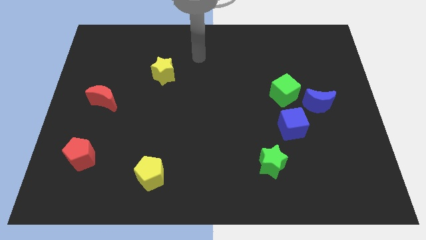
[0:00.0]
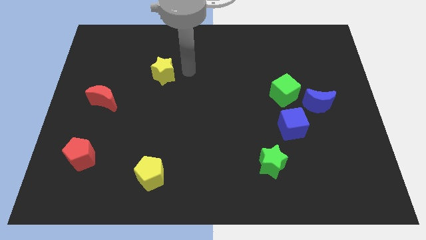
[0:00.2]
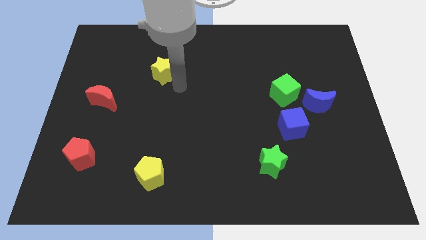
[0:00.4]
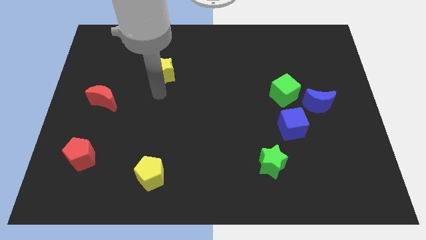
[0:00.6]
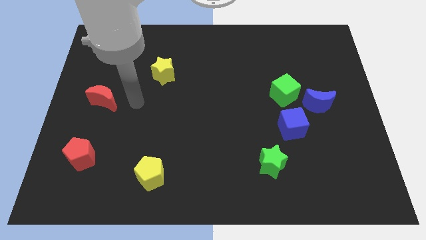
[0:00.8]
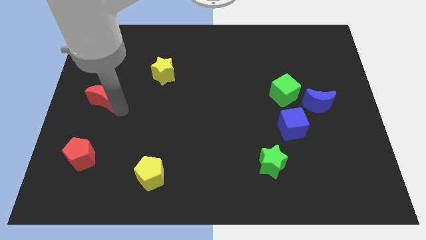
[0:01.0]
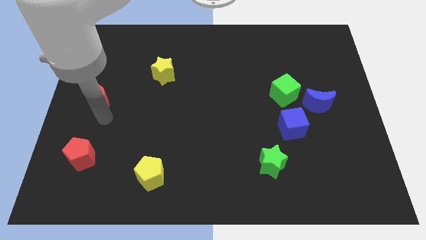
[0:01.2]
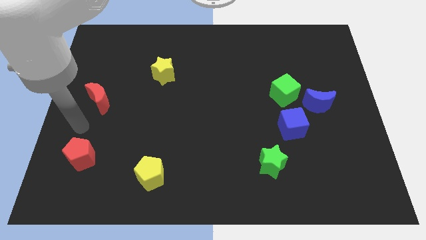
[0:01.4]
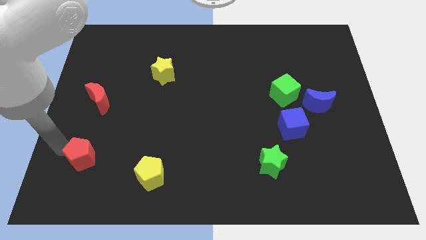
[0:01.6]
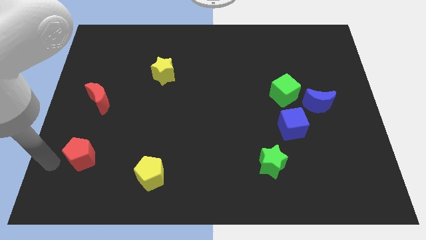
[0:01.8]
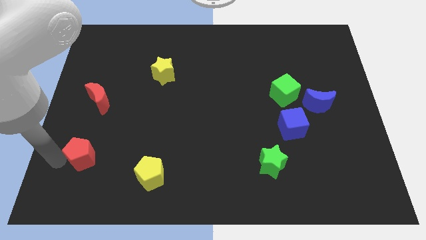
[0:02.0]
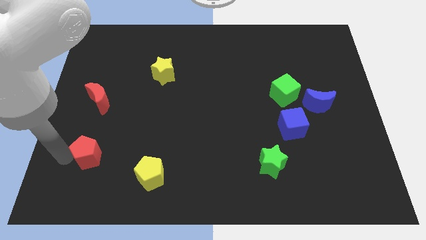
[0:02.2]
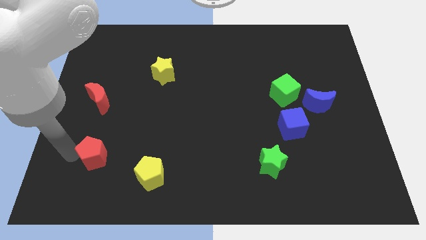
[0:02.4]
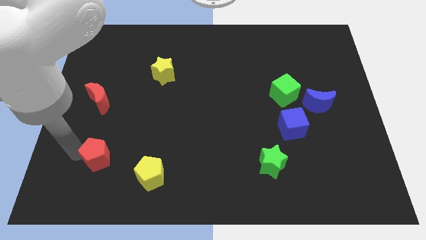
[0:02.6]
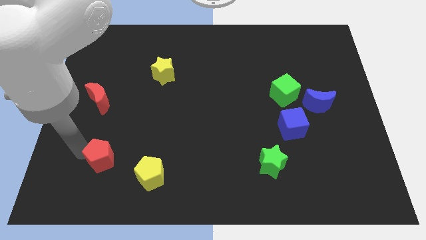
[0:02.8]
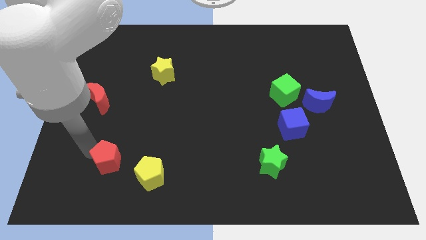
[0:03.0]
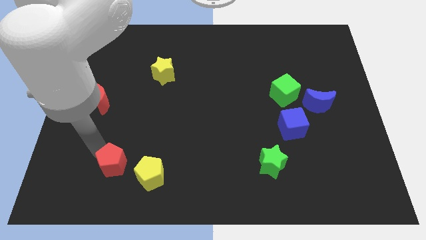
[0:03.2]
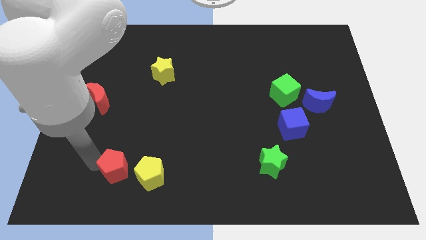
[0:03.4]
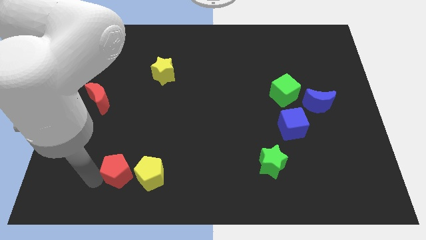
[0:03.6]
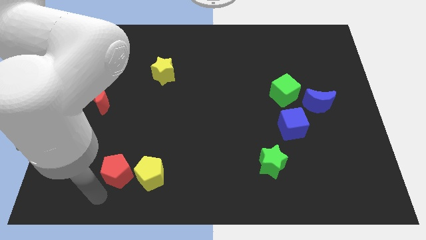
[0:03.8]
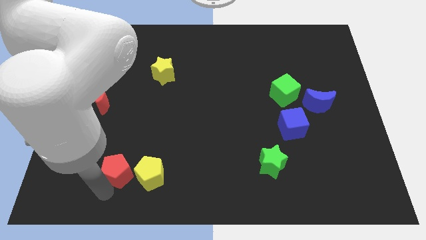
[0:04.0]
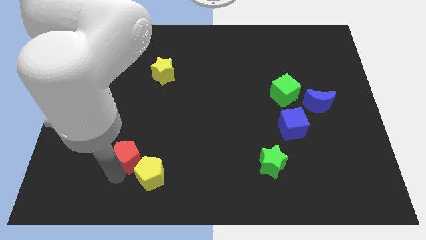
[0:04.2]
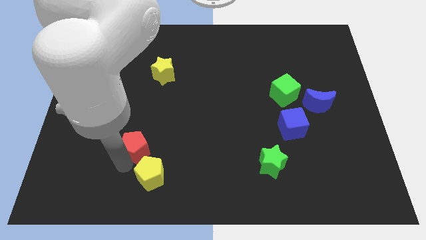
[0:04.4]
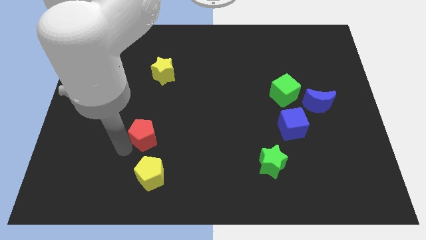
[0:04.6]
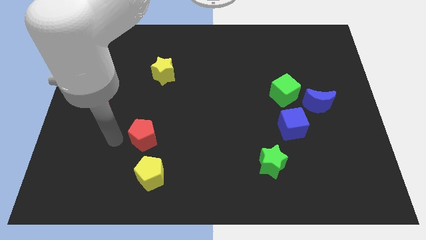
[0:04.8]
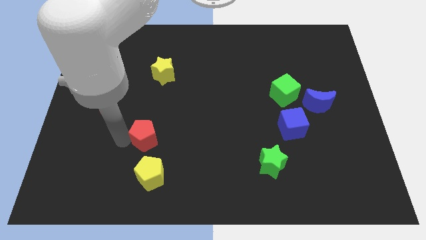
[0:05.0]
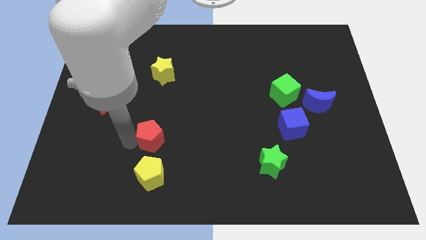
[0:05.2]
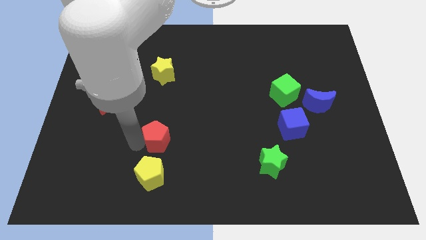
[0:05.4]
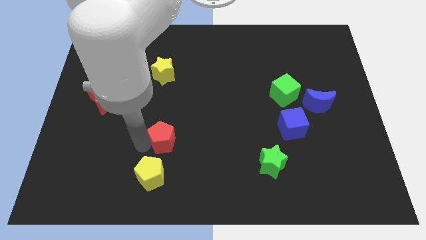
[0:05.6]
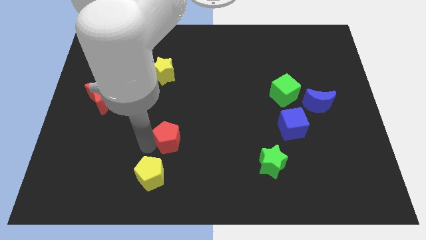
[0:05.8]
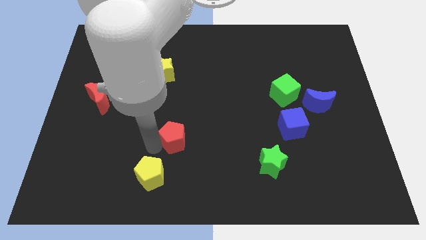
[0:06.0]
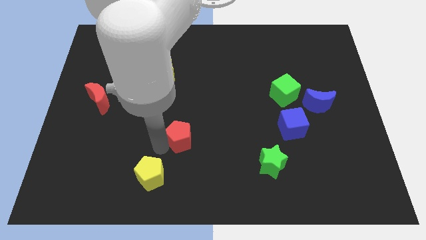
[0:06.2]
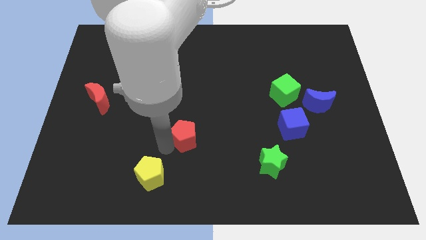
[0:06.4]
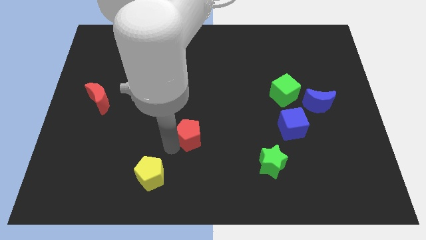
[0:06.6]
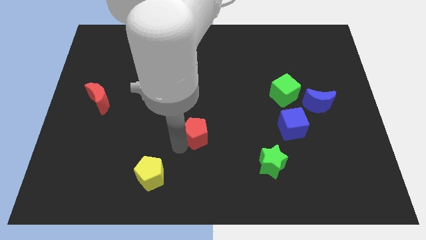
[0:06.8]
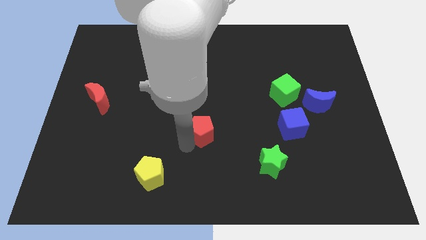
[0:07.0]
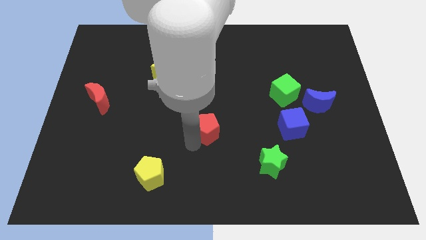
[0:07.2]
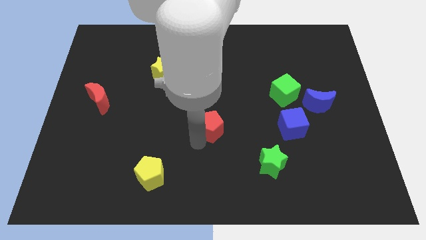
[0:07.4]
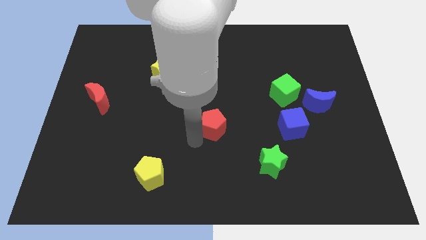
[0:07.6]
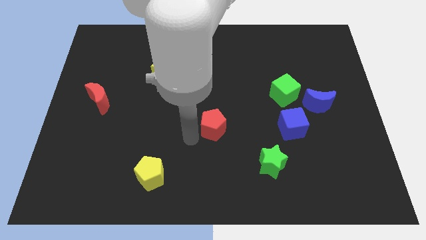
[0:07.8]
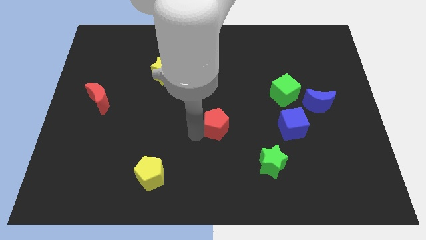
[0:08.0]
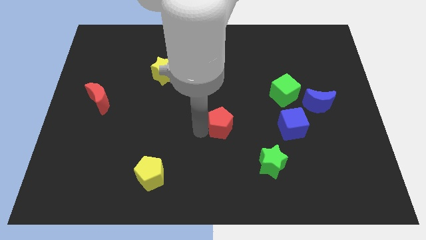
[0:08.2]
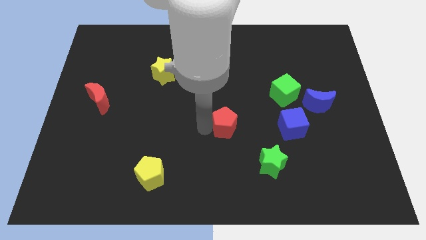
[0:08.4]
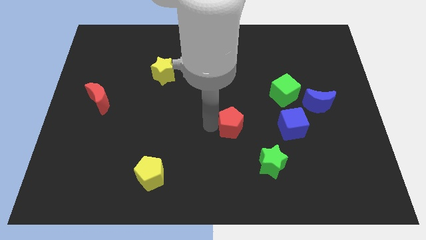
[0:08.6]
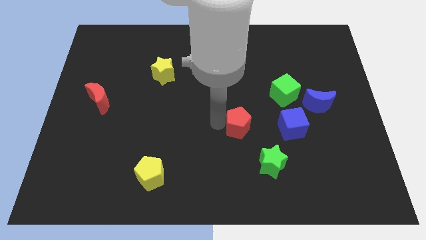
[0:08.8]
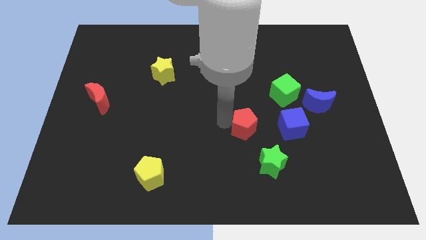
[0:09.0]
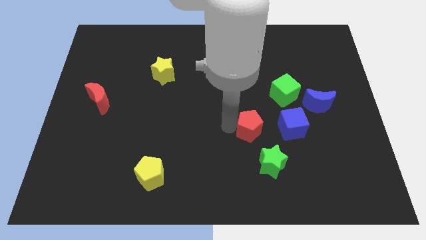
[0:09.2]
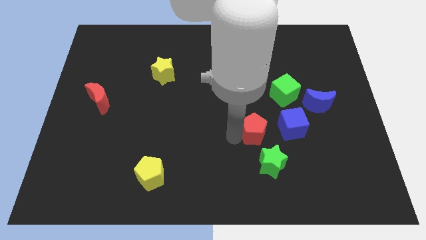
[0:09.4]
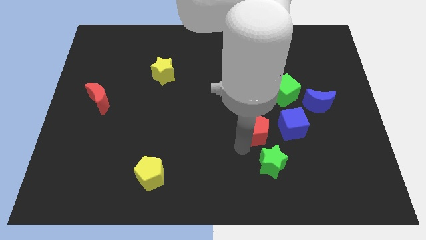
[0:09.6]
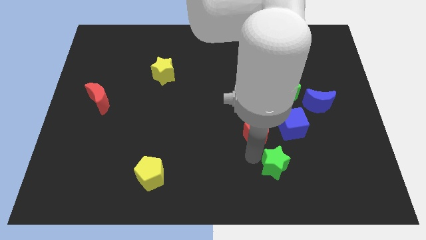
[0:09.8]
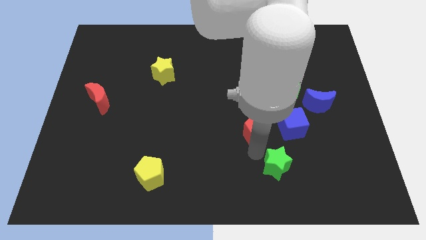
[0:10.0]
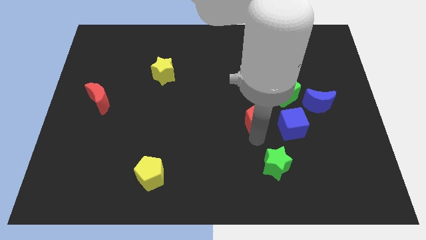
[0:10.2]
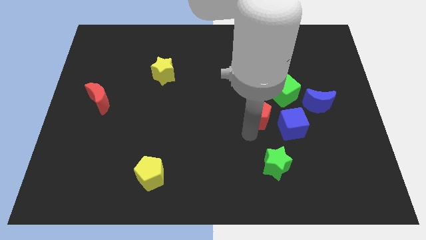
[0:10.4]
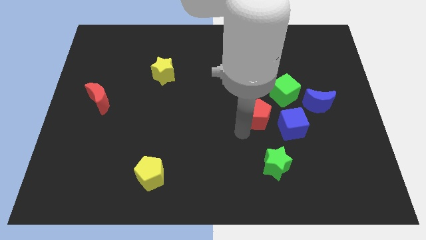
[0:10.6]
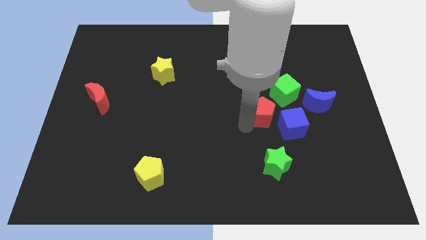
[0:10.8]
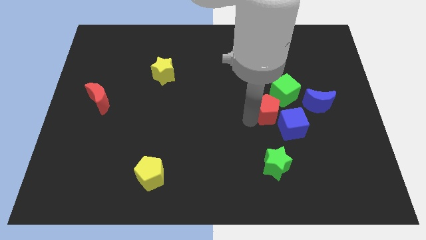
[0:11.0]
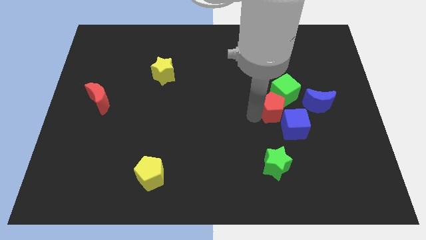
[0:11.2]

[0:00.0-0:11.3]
push the red pentagon to the green cube

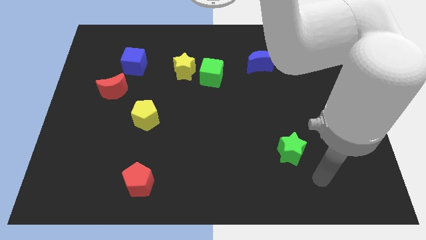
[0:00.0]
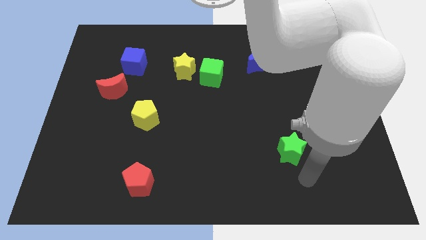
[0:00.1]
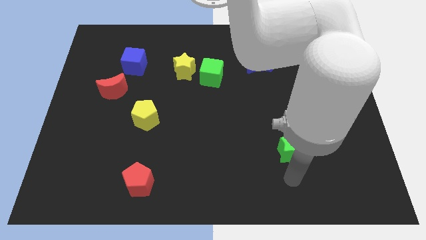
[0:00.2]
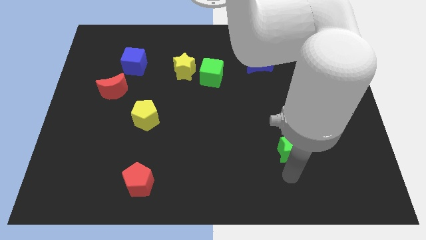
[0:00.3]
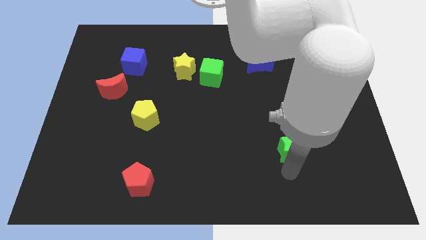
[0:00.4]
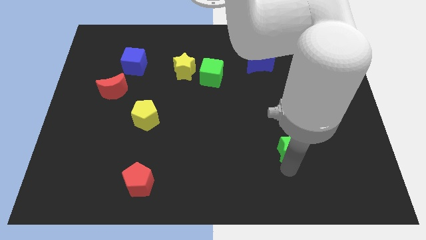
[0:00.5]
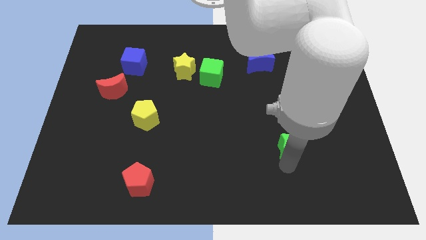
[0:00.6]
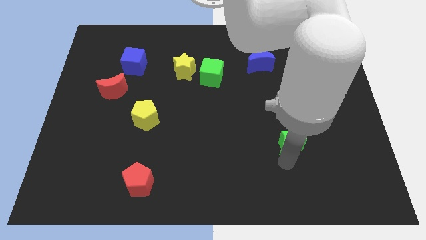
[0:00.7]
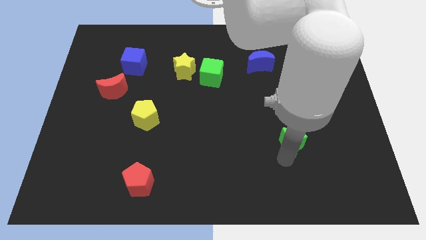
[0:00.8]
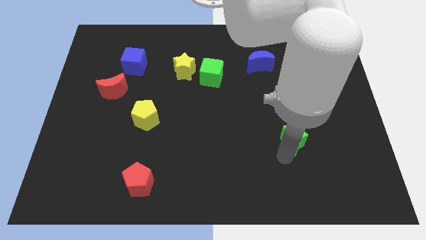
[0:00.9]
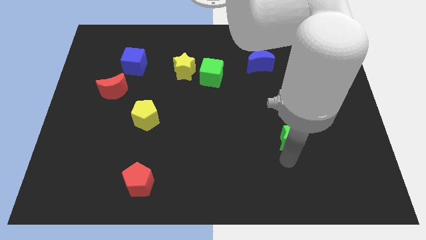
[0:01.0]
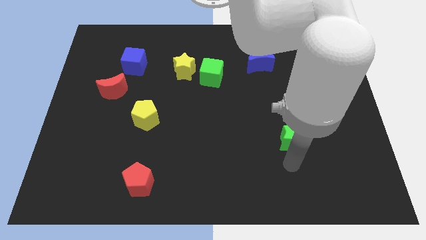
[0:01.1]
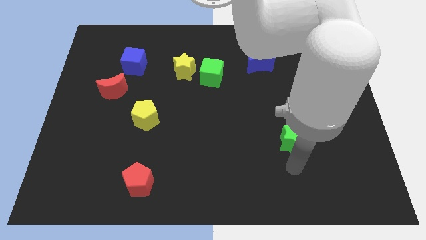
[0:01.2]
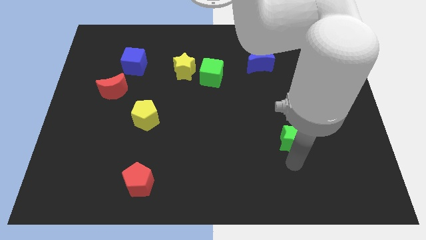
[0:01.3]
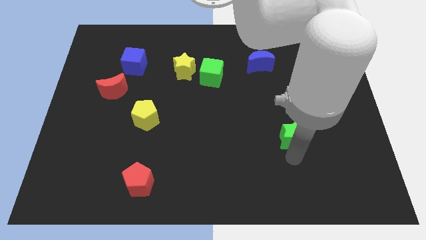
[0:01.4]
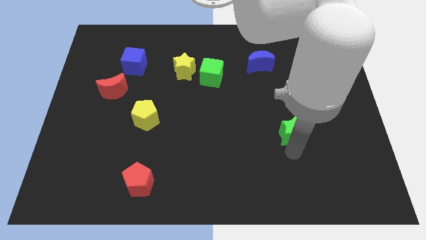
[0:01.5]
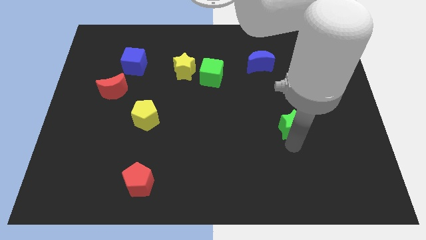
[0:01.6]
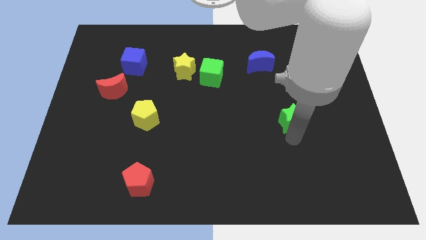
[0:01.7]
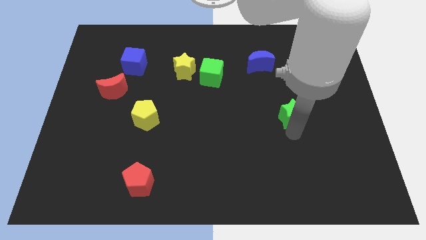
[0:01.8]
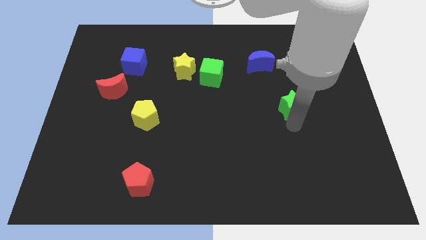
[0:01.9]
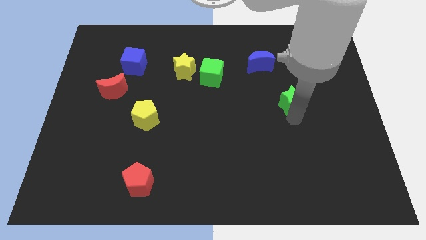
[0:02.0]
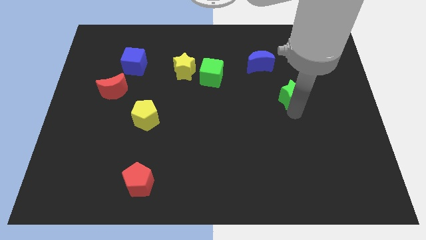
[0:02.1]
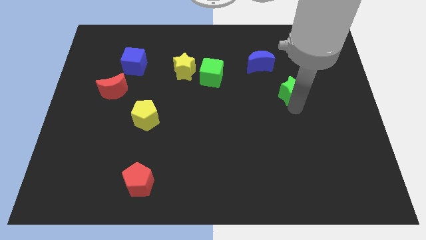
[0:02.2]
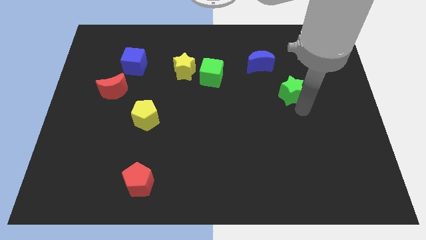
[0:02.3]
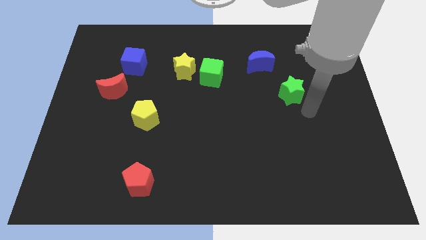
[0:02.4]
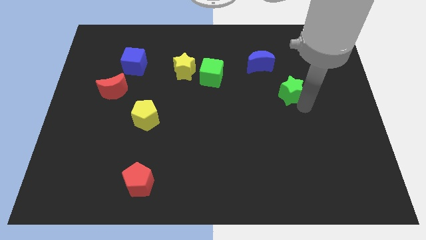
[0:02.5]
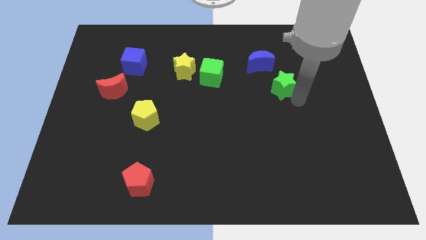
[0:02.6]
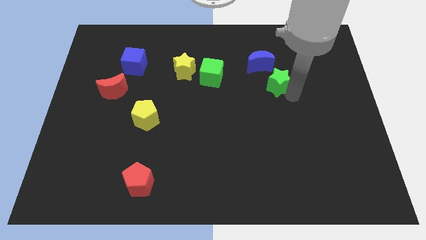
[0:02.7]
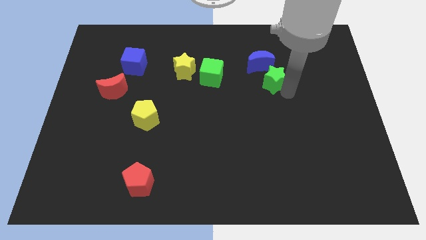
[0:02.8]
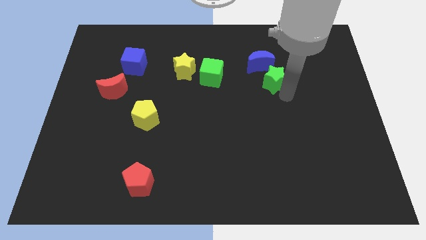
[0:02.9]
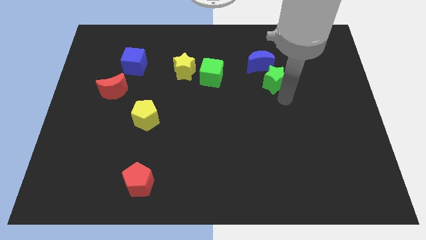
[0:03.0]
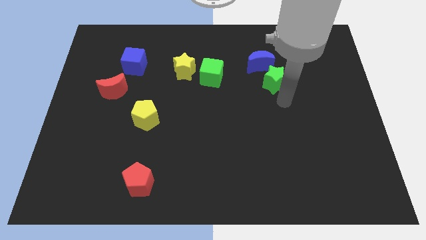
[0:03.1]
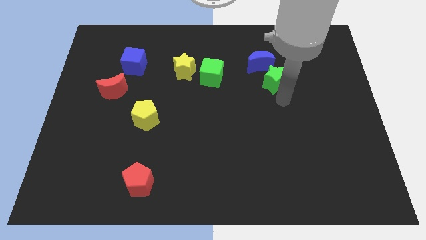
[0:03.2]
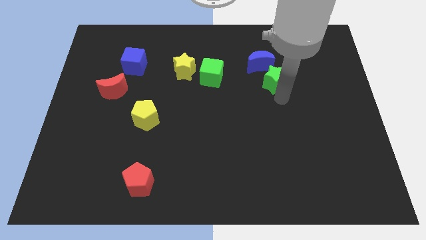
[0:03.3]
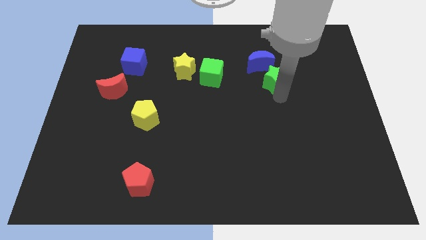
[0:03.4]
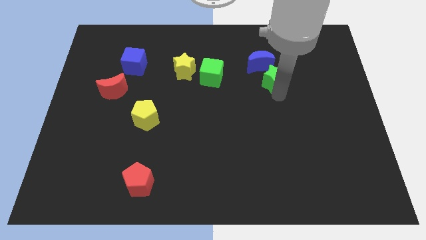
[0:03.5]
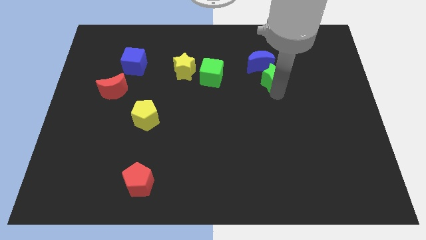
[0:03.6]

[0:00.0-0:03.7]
move the green star to the blue moon
